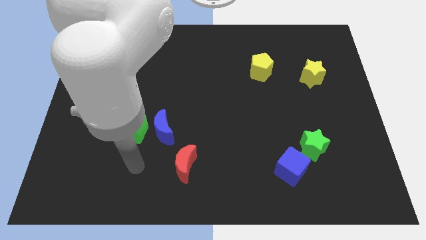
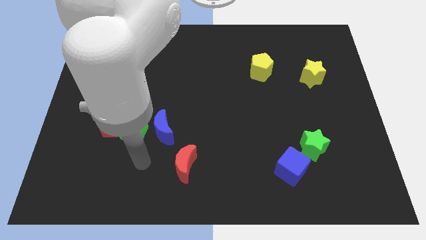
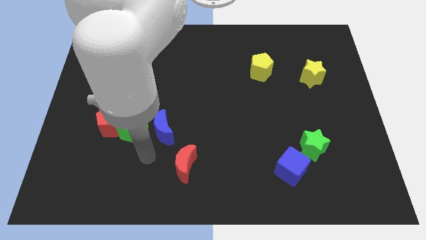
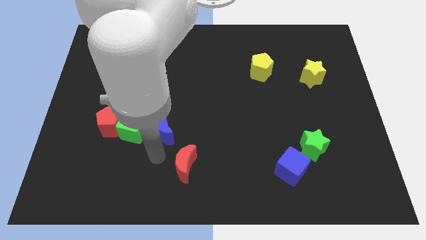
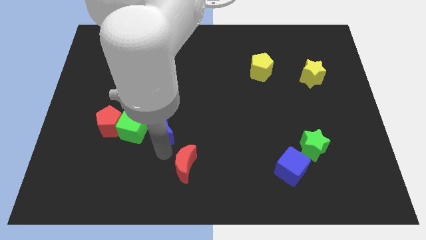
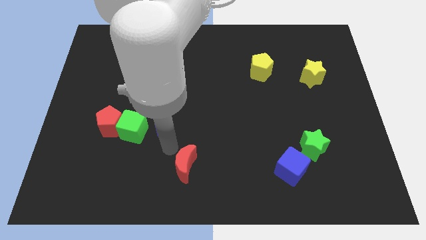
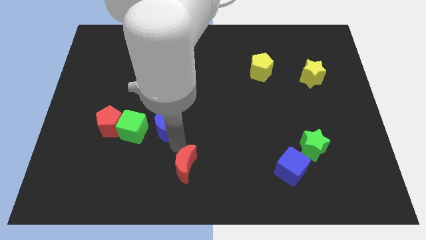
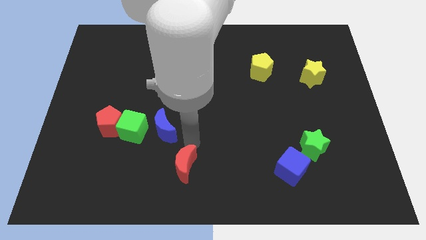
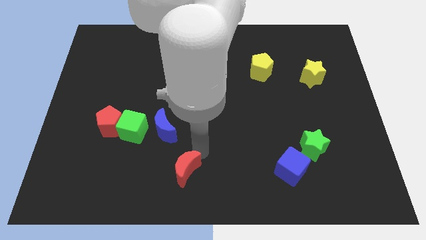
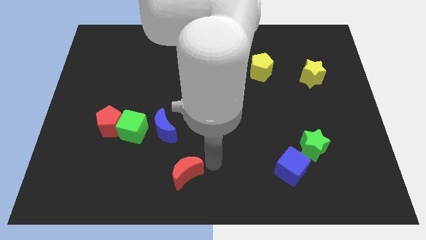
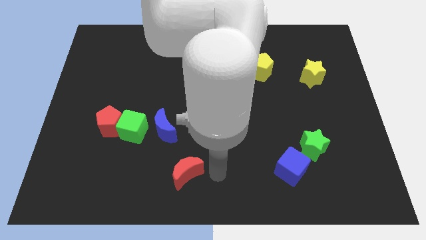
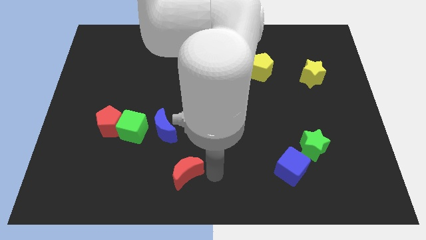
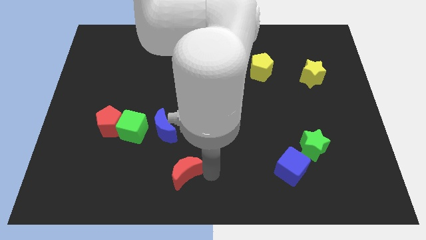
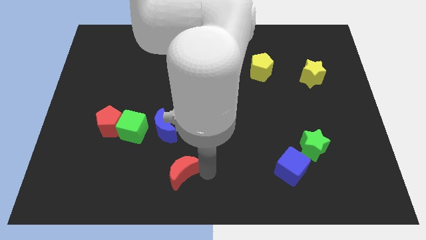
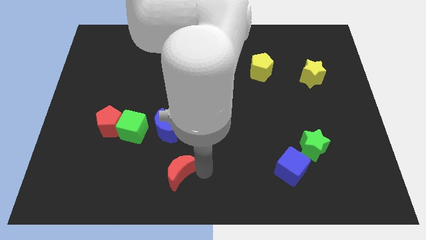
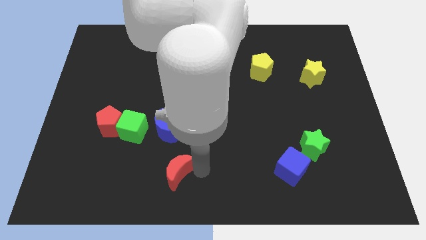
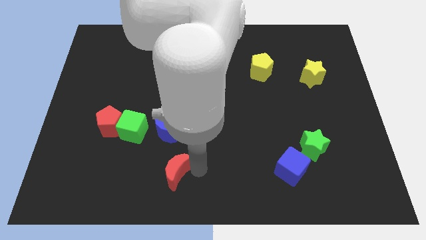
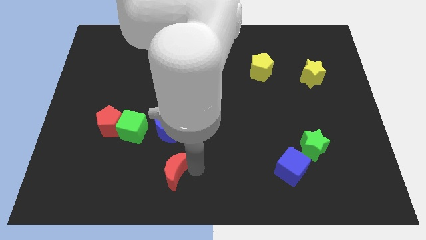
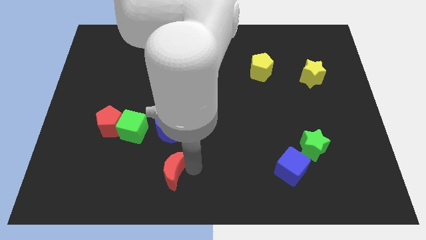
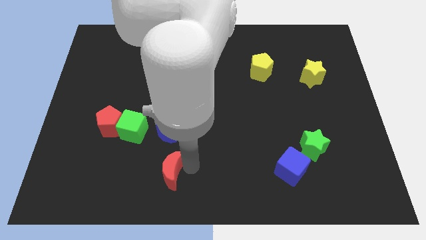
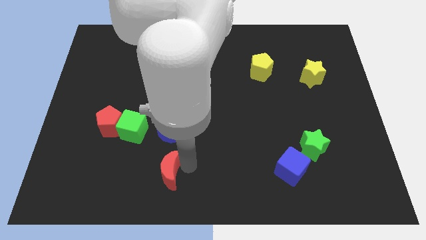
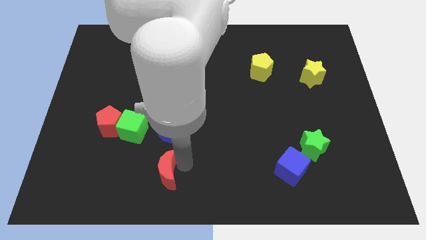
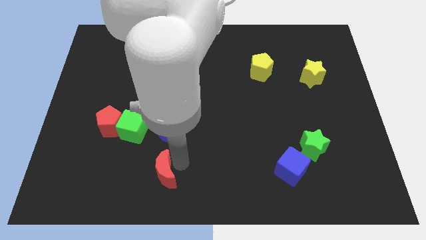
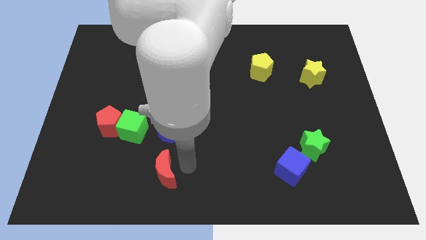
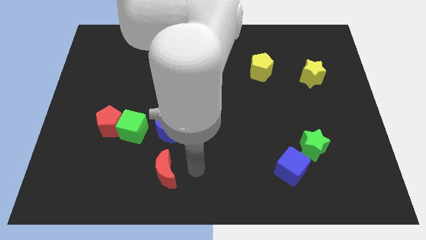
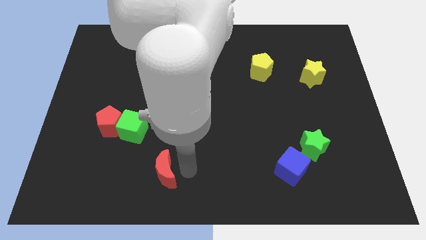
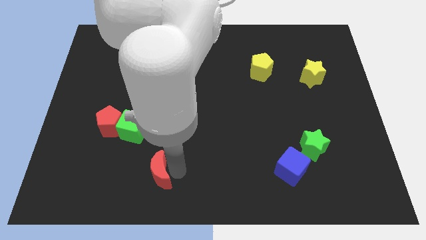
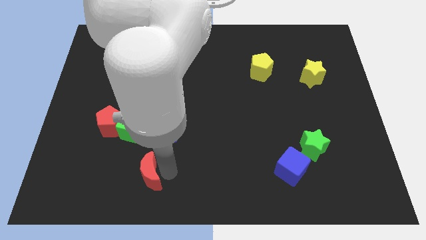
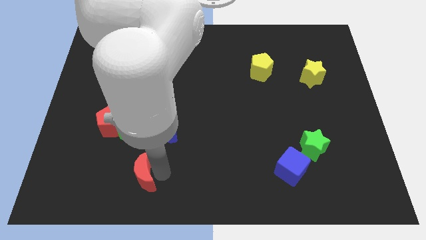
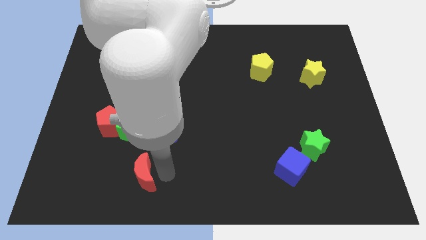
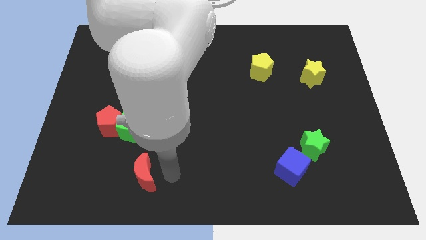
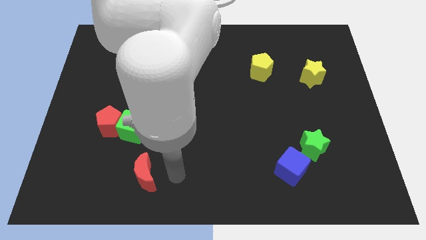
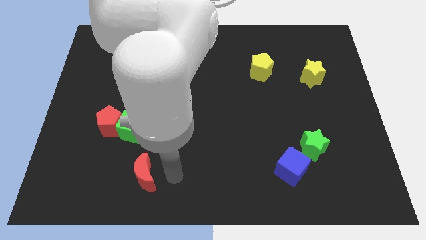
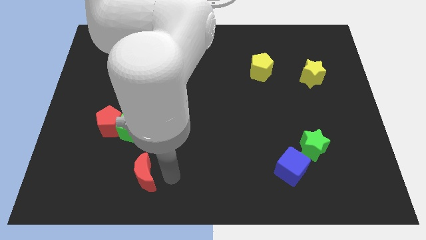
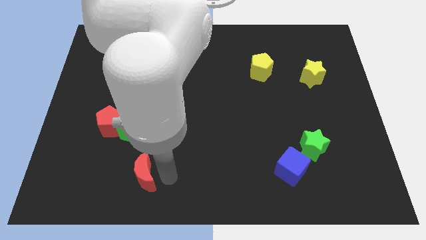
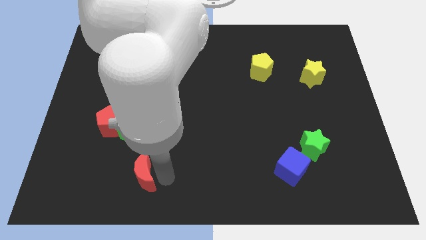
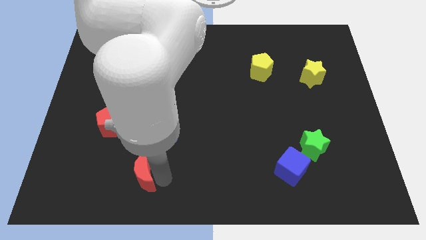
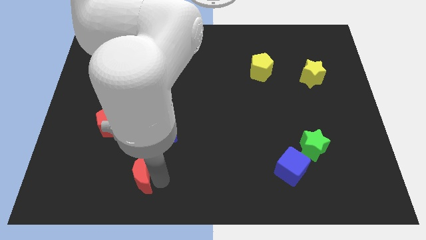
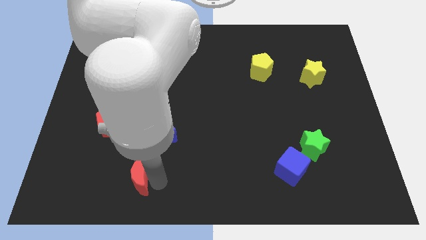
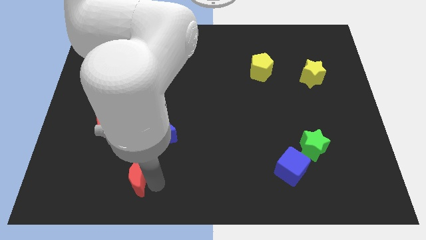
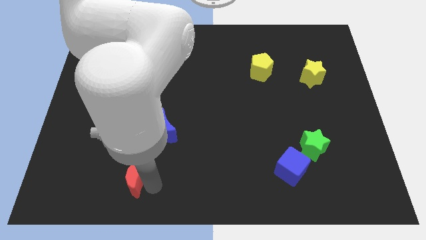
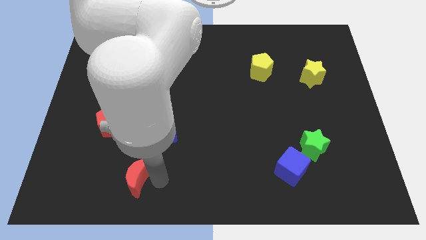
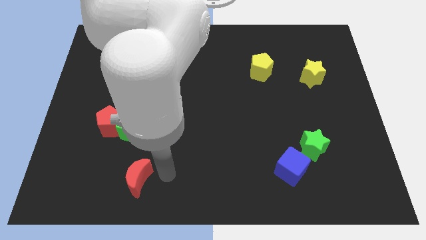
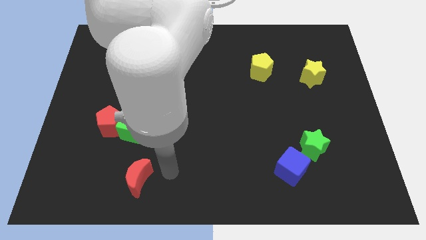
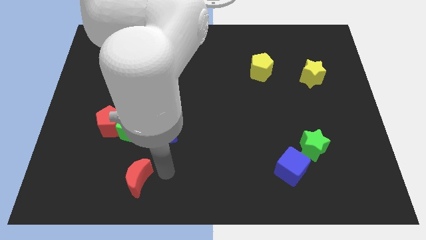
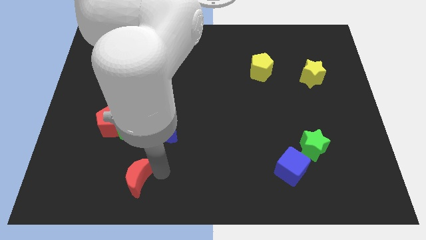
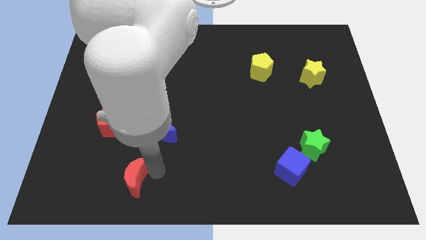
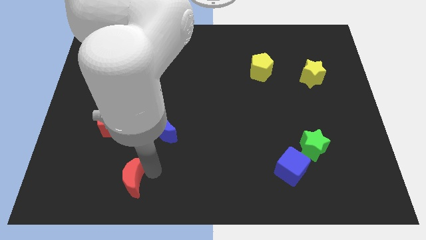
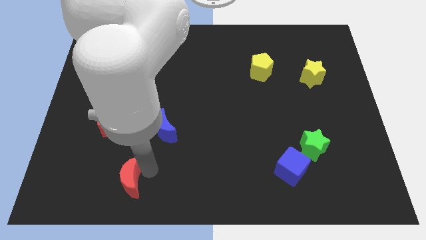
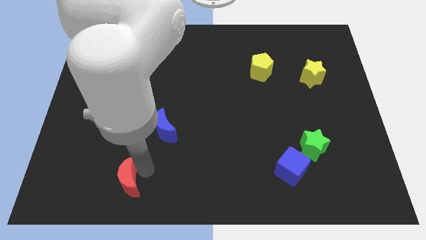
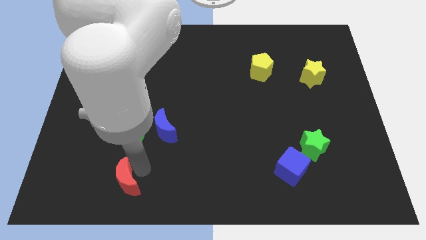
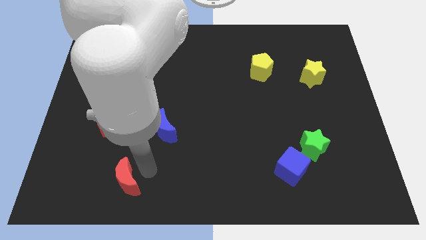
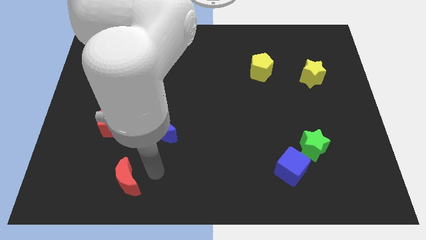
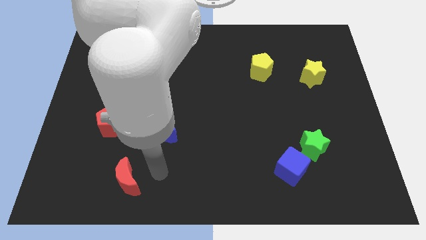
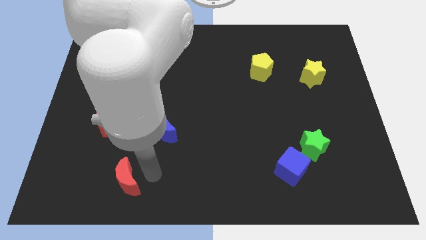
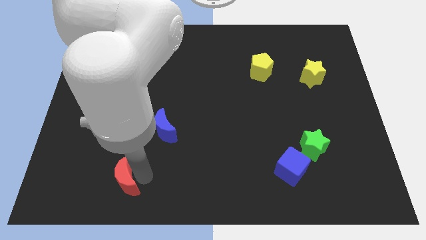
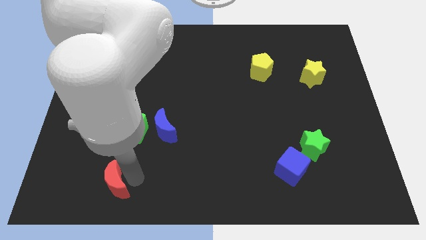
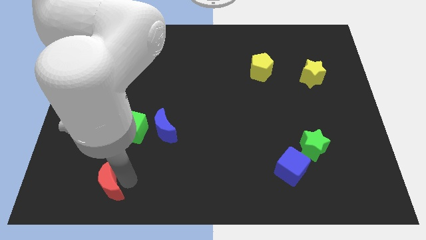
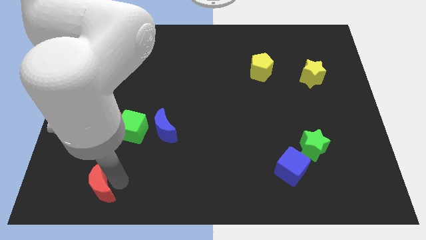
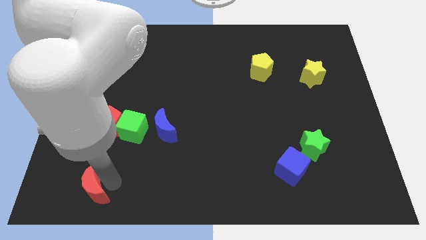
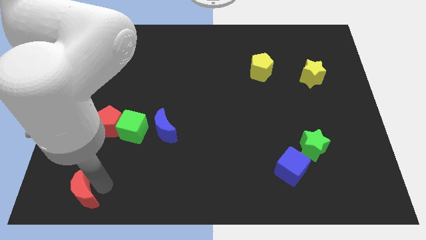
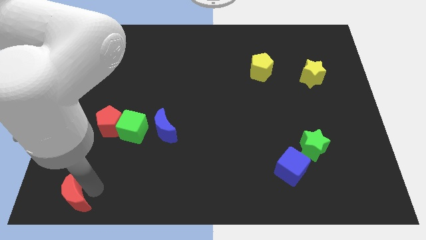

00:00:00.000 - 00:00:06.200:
slide the red moon to the bottom left corner
